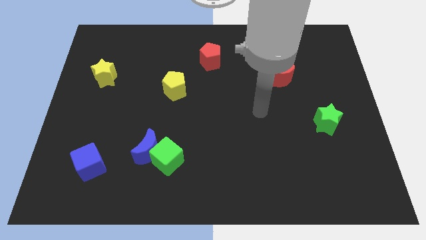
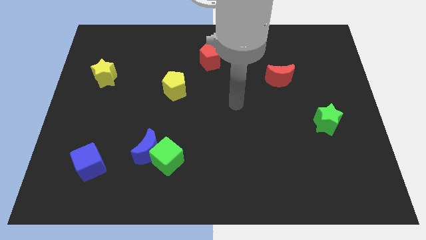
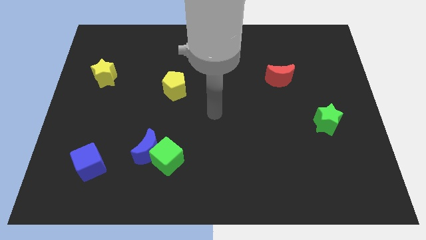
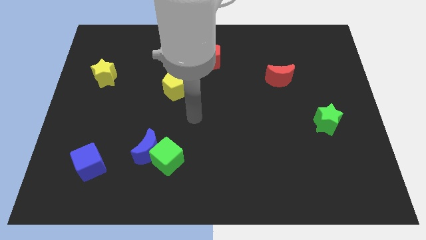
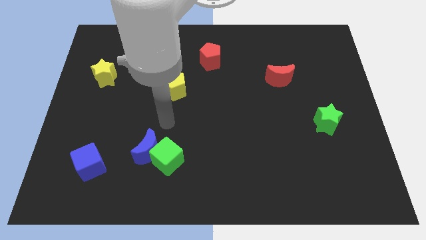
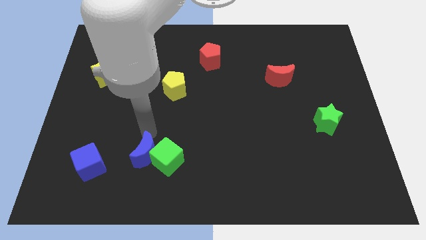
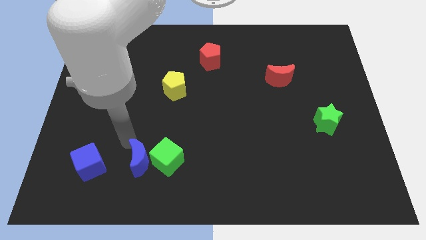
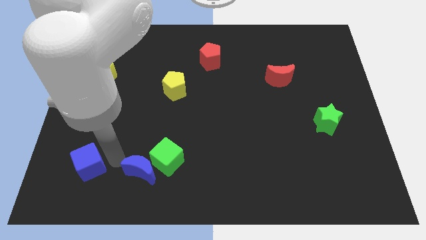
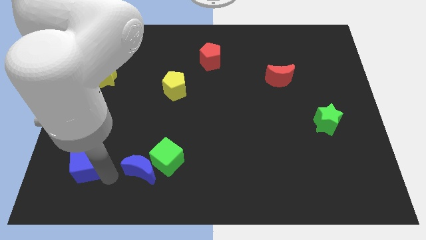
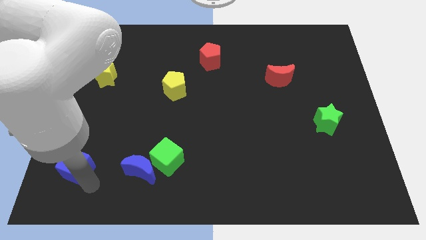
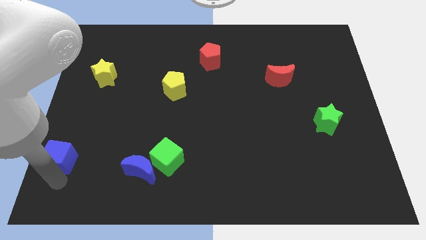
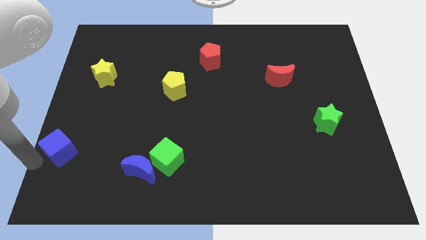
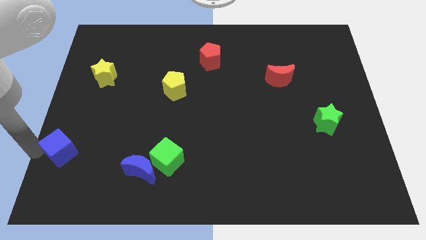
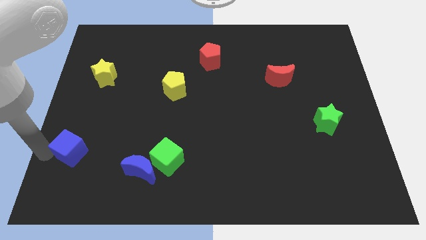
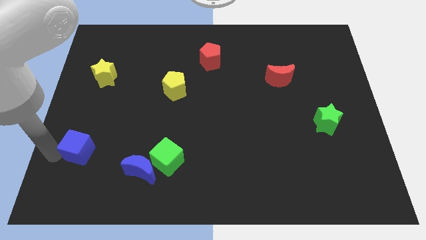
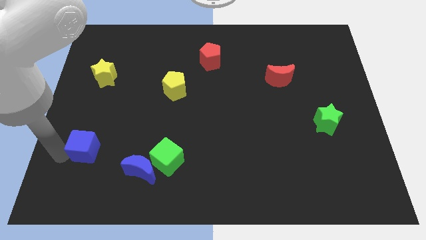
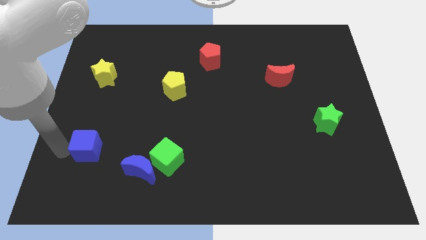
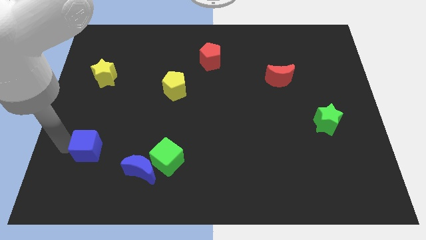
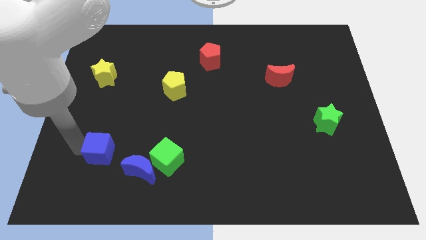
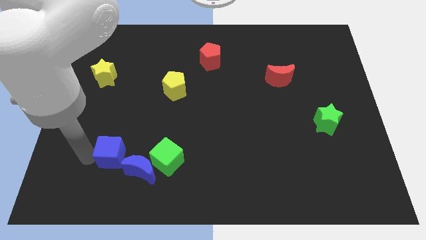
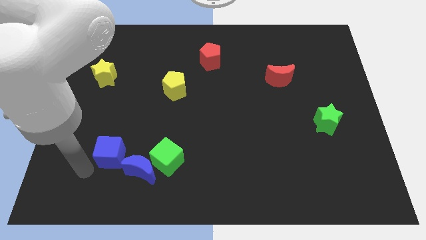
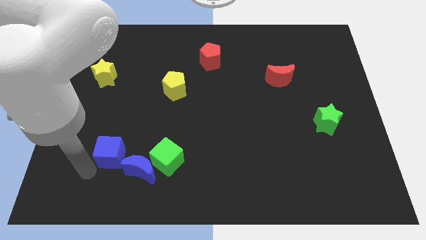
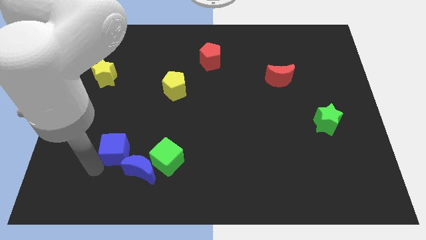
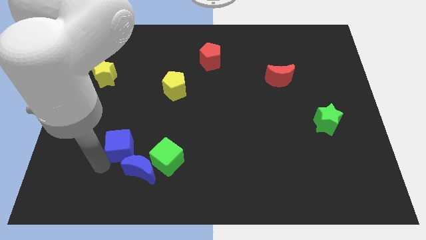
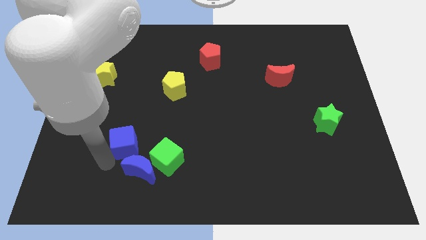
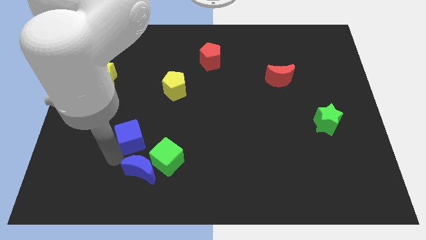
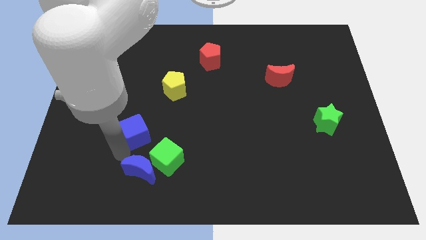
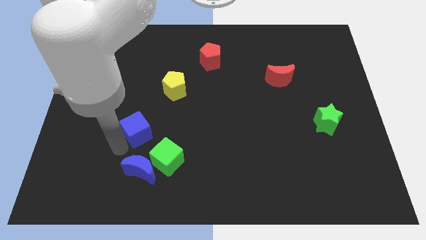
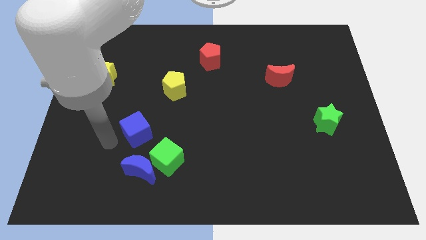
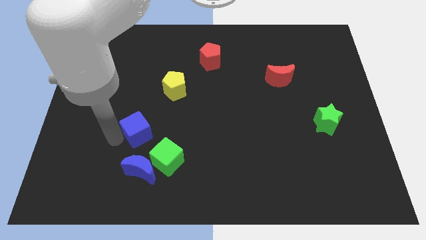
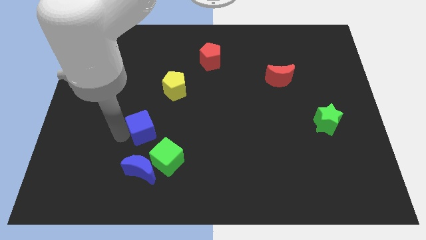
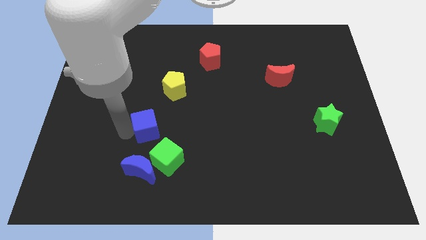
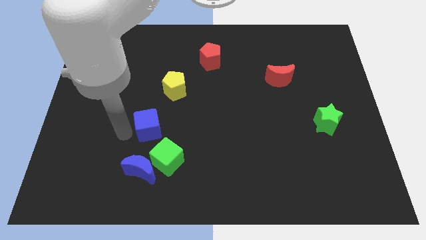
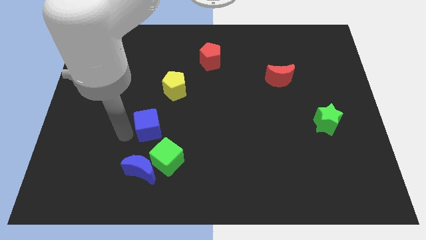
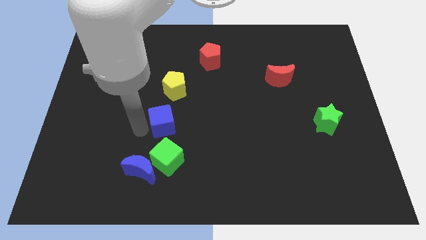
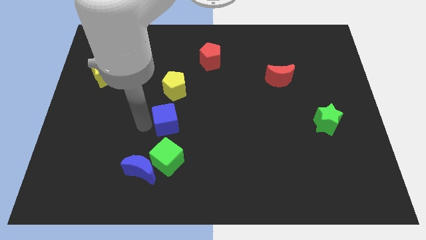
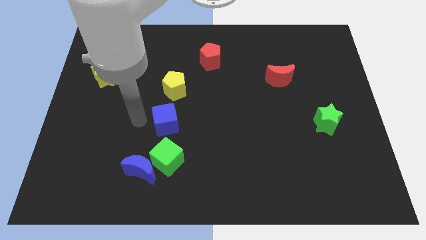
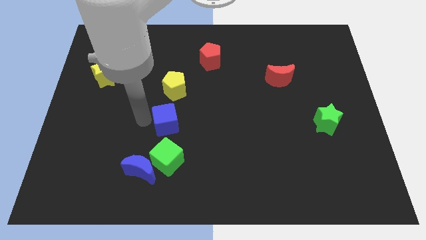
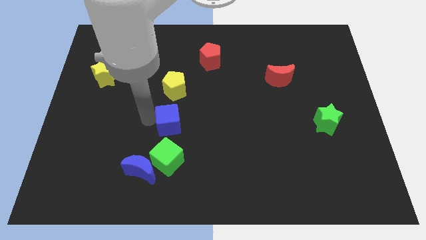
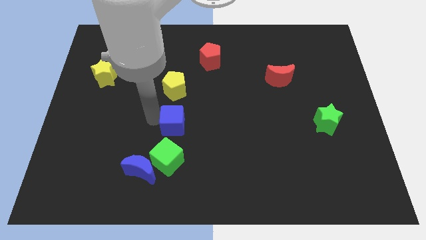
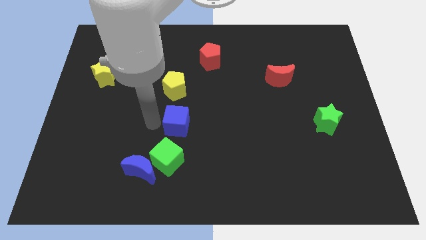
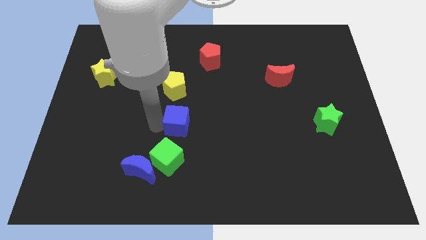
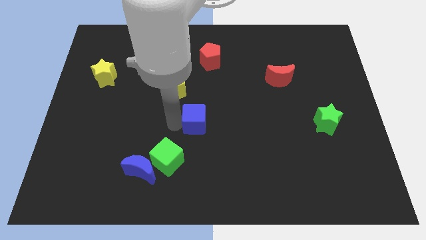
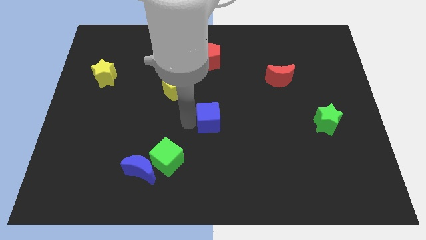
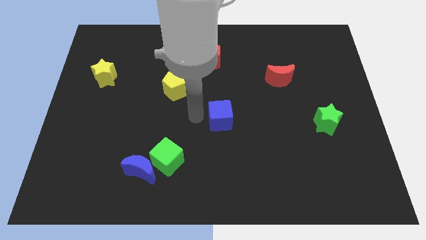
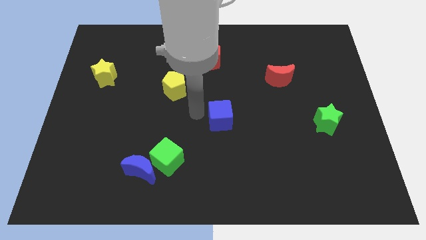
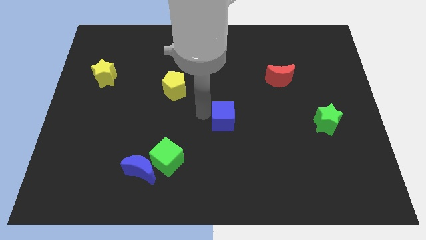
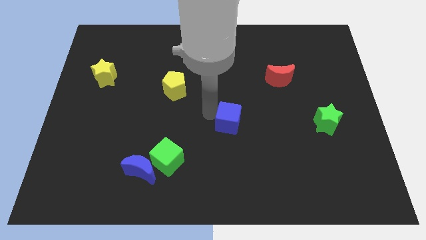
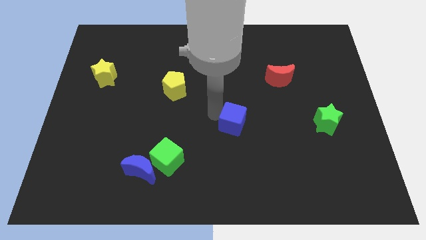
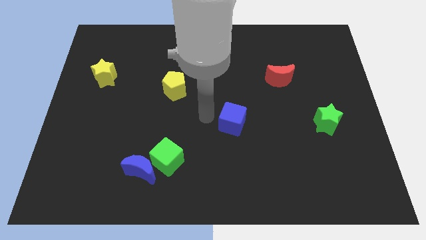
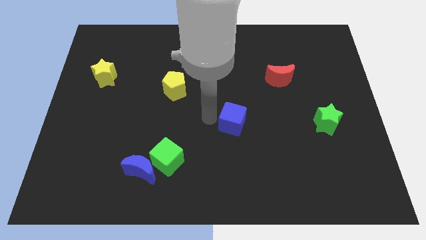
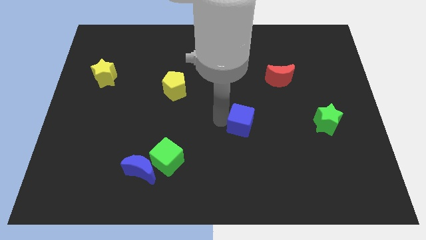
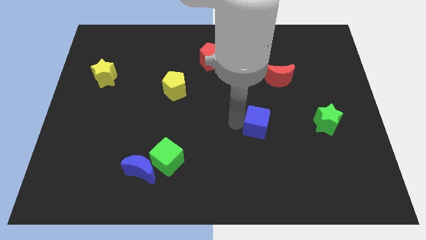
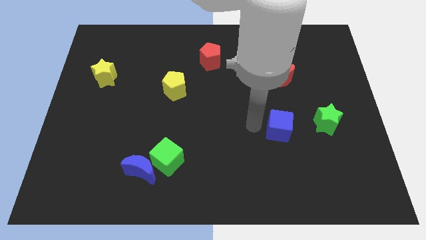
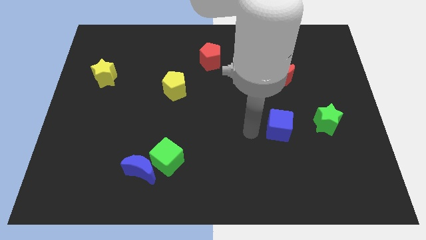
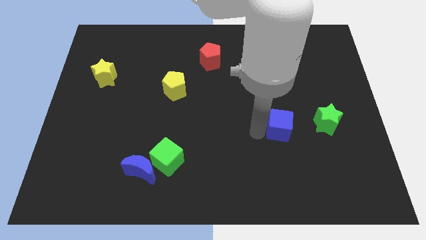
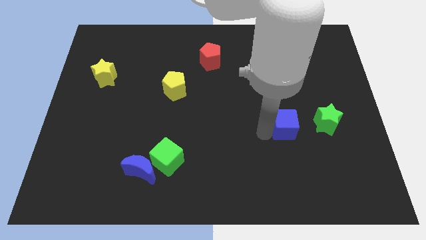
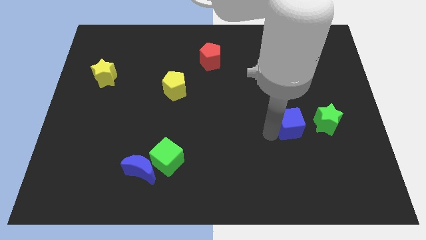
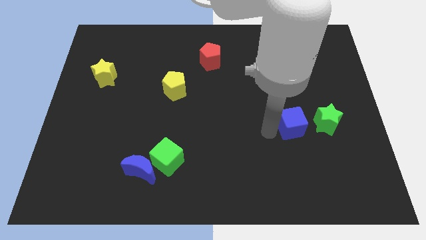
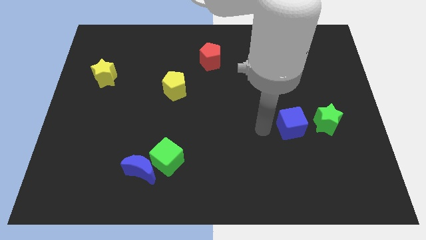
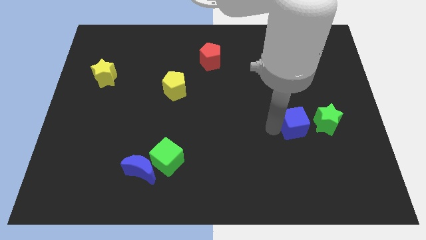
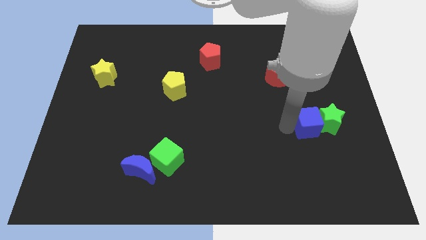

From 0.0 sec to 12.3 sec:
put the blue cube towards the green star
